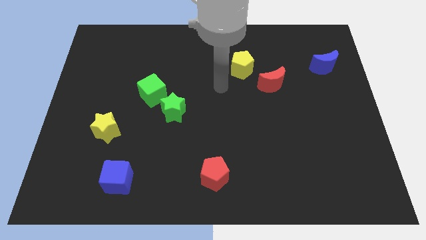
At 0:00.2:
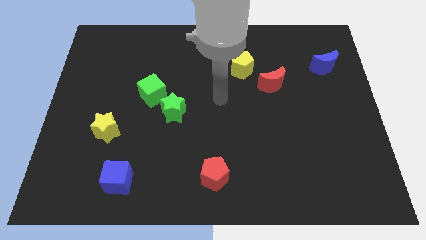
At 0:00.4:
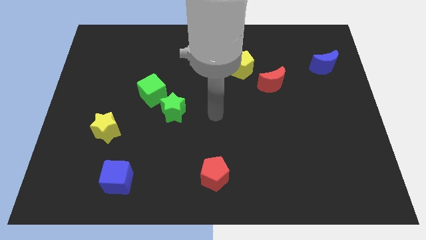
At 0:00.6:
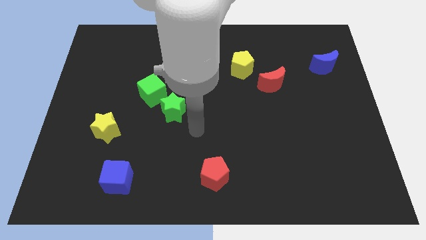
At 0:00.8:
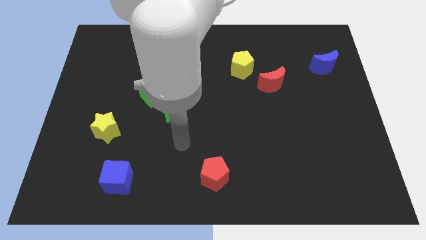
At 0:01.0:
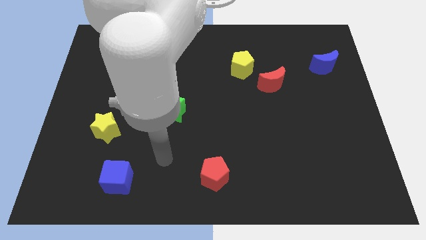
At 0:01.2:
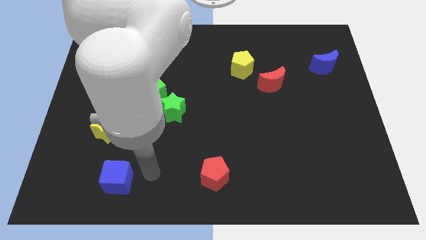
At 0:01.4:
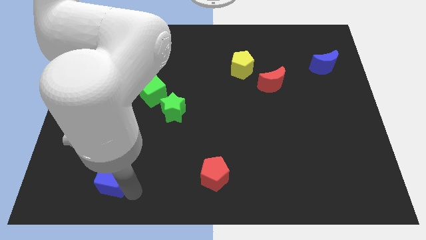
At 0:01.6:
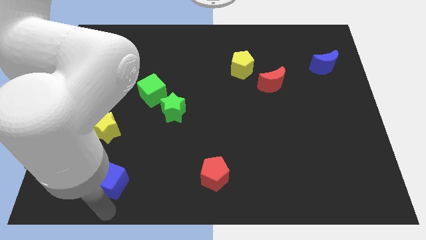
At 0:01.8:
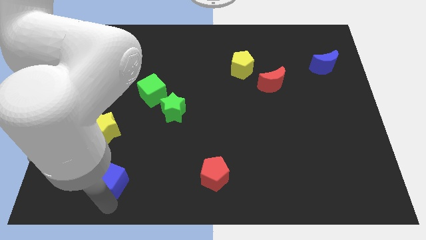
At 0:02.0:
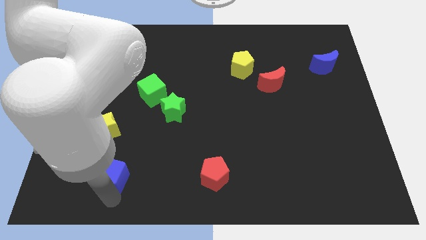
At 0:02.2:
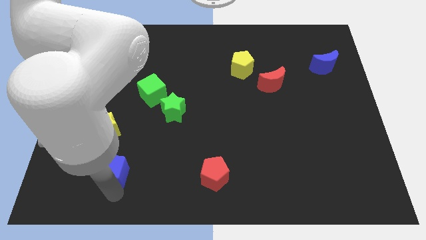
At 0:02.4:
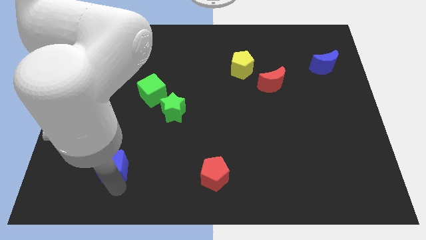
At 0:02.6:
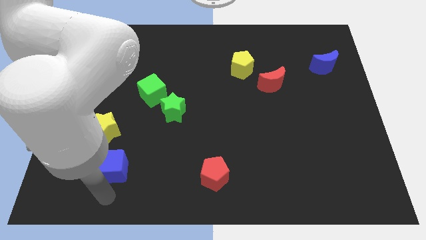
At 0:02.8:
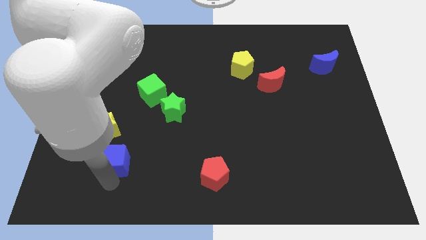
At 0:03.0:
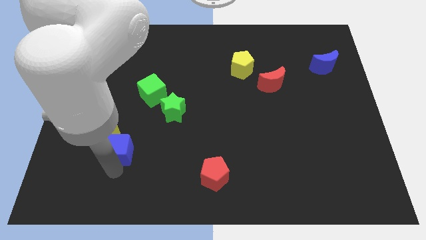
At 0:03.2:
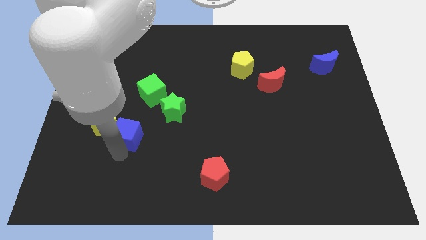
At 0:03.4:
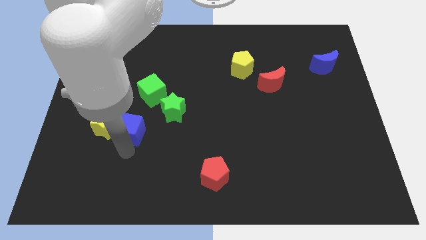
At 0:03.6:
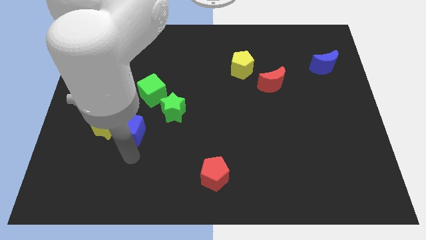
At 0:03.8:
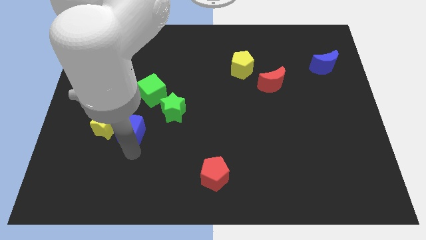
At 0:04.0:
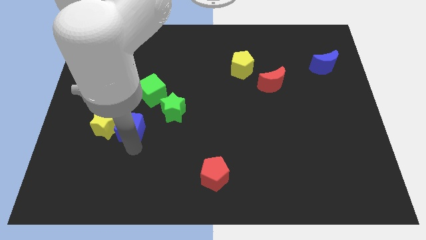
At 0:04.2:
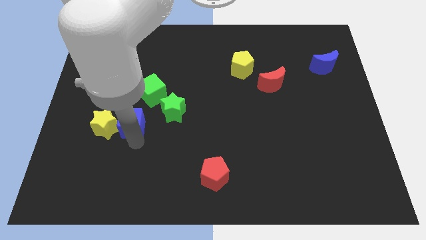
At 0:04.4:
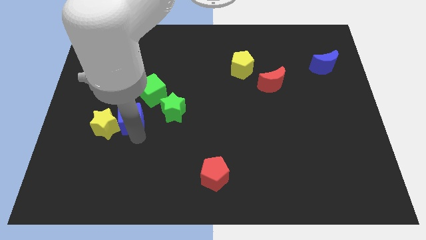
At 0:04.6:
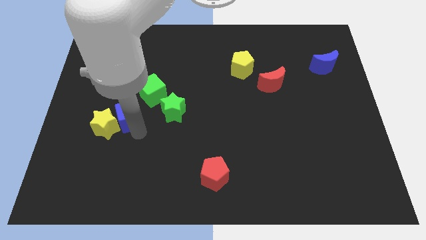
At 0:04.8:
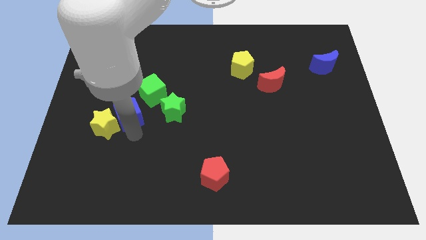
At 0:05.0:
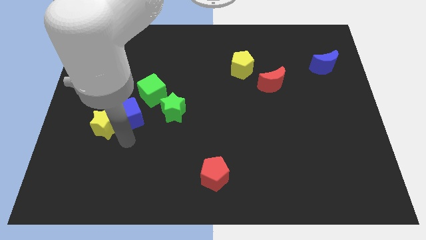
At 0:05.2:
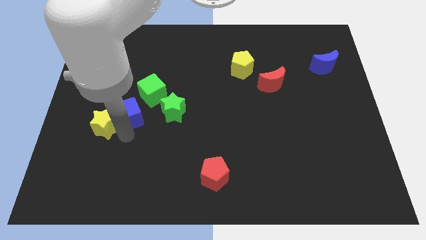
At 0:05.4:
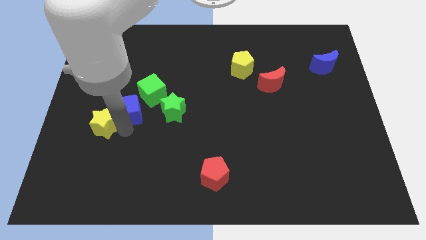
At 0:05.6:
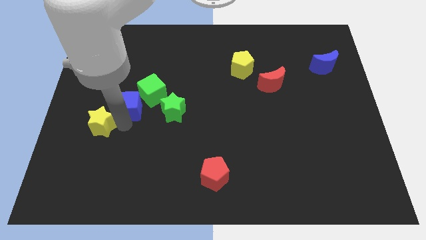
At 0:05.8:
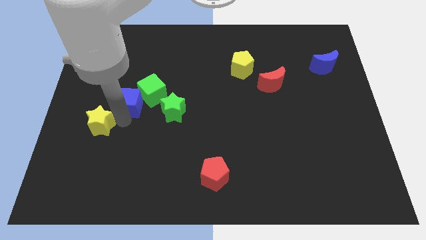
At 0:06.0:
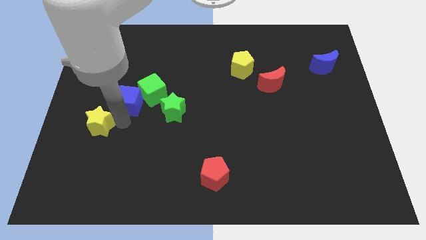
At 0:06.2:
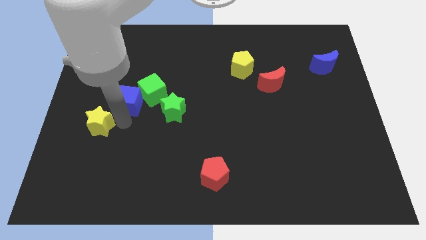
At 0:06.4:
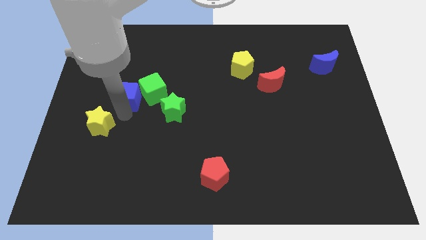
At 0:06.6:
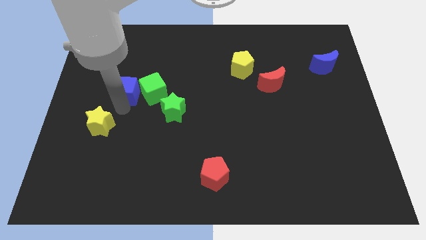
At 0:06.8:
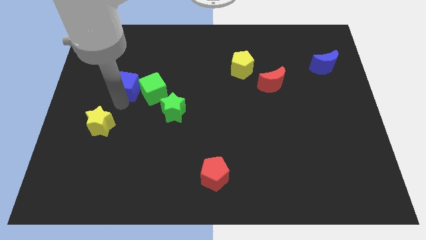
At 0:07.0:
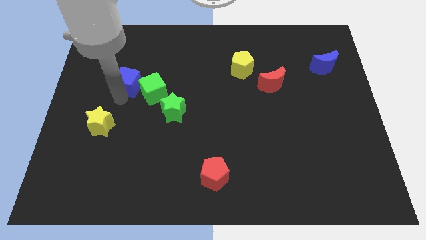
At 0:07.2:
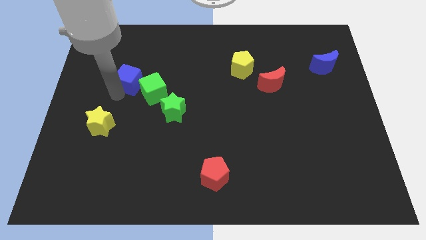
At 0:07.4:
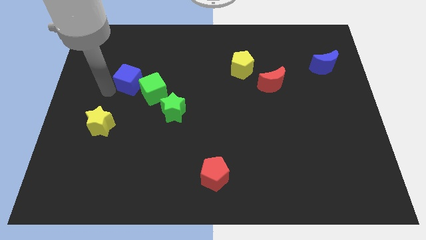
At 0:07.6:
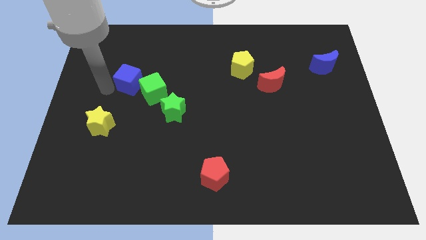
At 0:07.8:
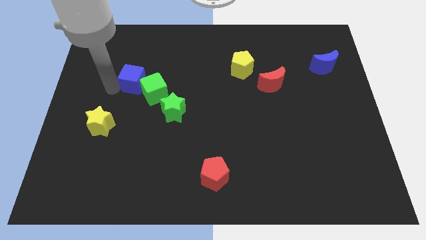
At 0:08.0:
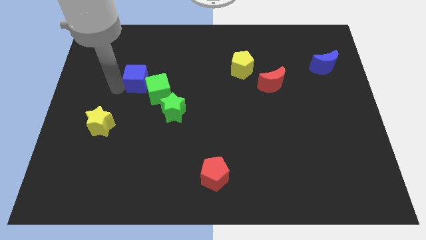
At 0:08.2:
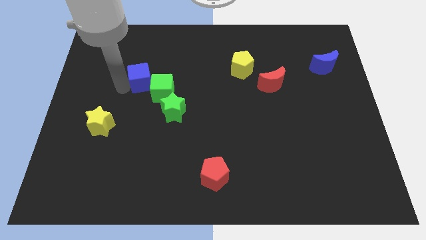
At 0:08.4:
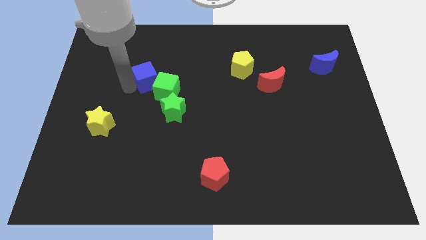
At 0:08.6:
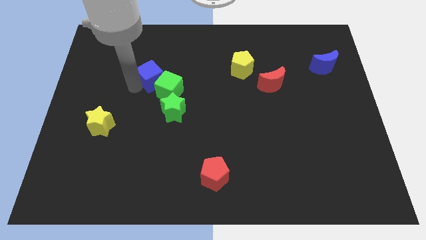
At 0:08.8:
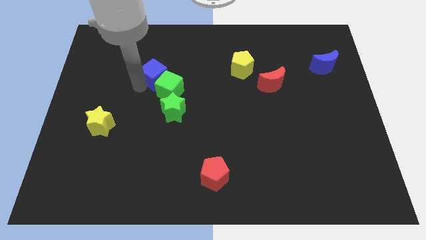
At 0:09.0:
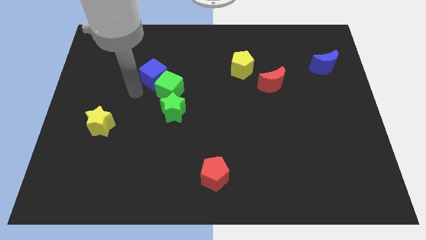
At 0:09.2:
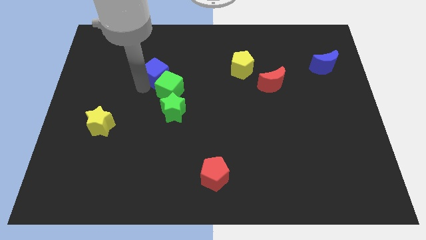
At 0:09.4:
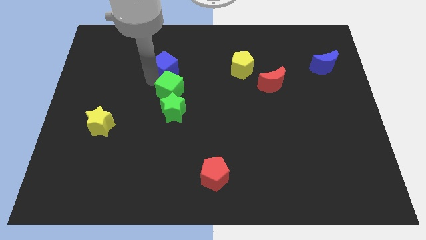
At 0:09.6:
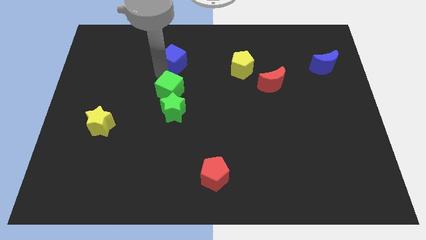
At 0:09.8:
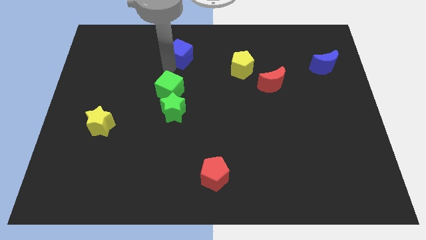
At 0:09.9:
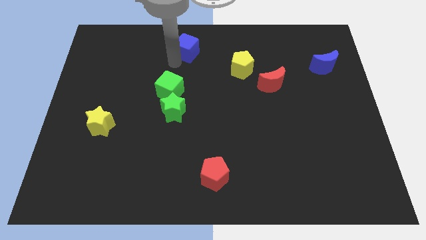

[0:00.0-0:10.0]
put the blue cube to the towards your base

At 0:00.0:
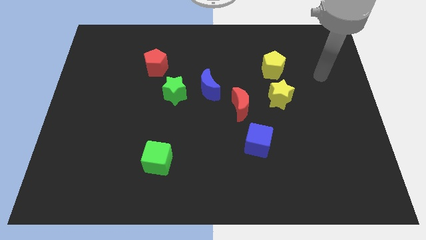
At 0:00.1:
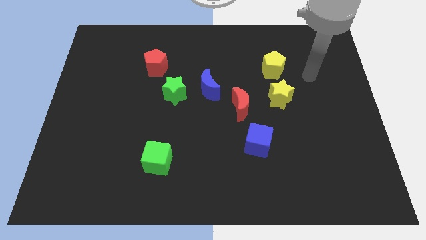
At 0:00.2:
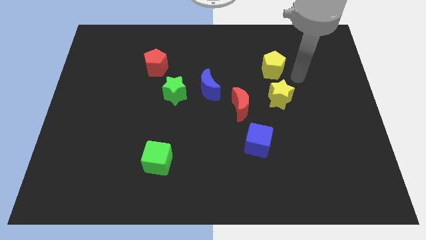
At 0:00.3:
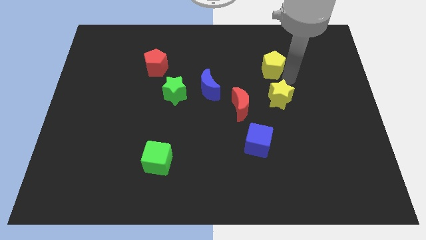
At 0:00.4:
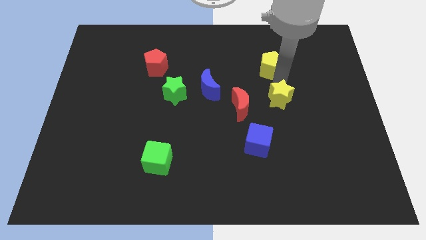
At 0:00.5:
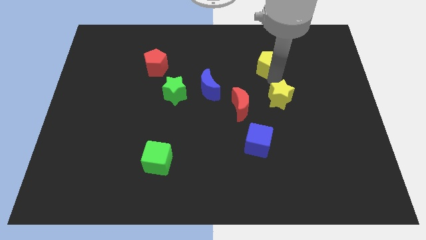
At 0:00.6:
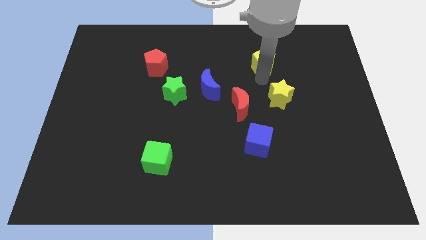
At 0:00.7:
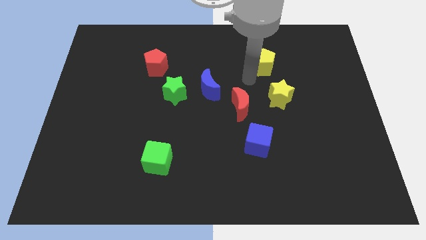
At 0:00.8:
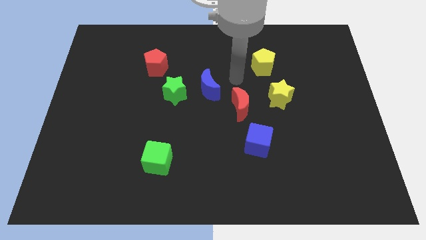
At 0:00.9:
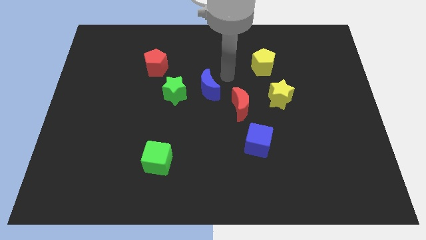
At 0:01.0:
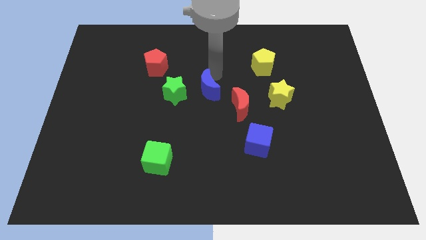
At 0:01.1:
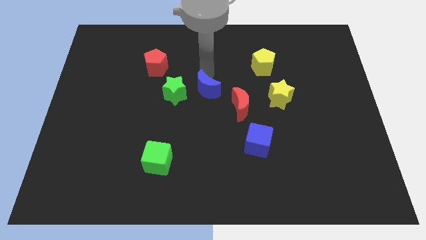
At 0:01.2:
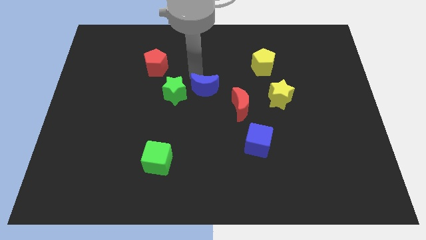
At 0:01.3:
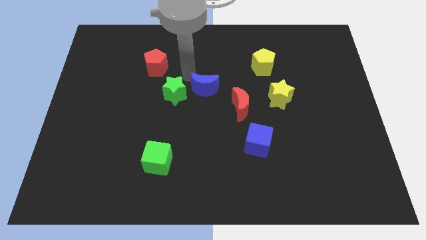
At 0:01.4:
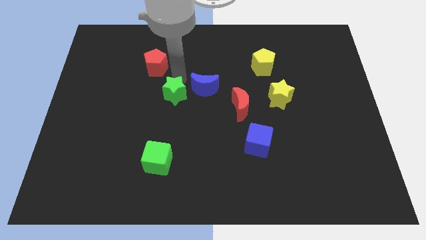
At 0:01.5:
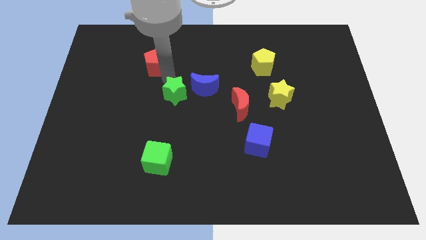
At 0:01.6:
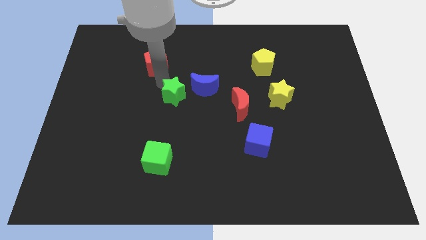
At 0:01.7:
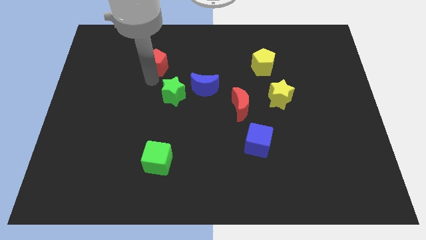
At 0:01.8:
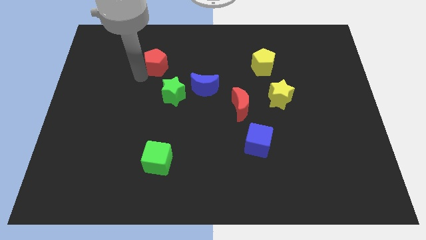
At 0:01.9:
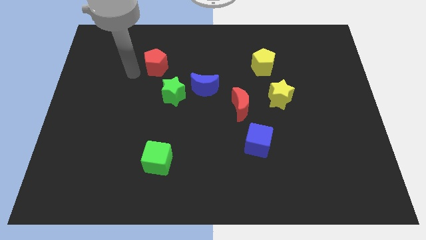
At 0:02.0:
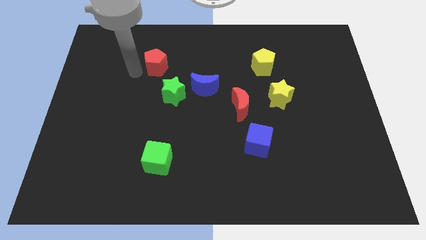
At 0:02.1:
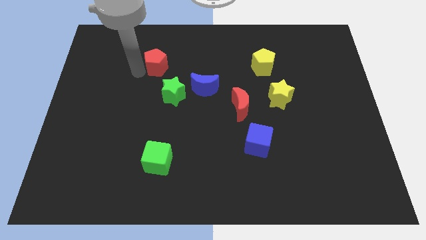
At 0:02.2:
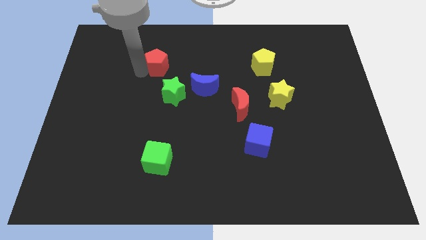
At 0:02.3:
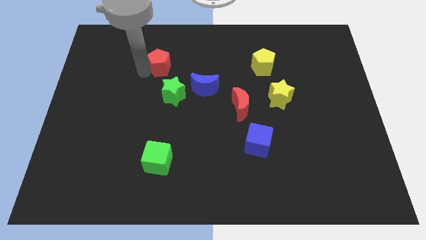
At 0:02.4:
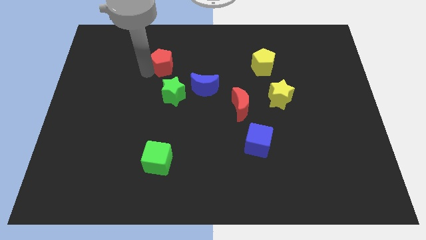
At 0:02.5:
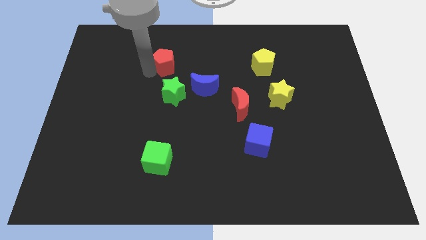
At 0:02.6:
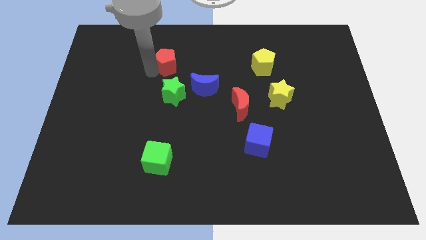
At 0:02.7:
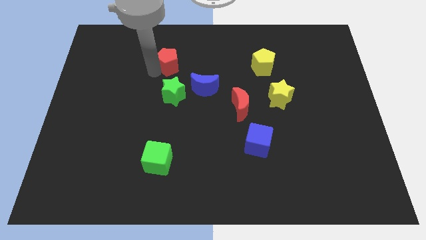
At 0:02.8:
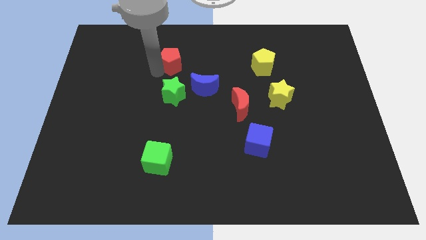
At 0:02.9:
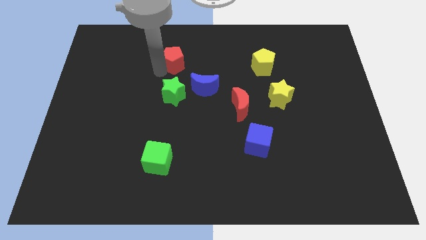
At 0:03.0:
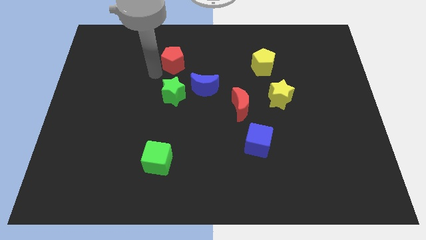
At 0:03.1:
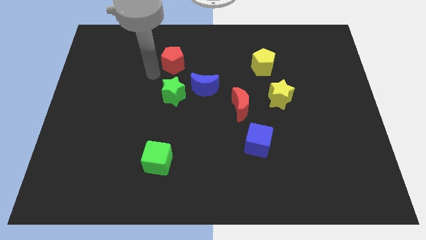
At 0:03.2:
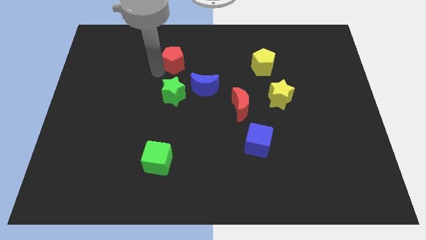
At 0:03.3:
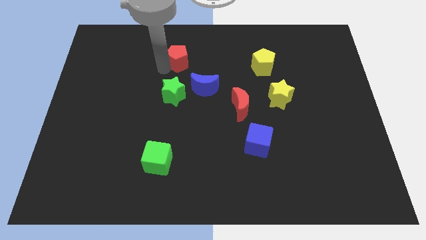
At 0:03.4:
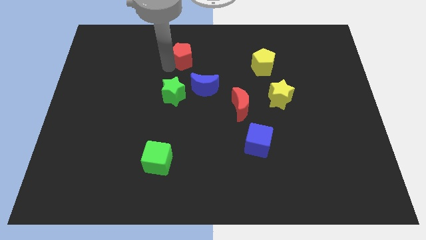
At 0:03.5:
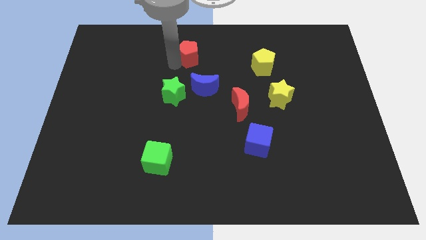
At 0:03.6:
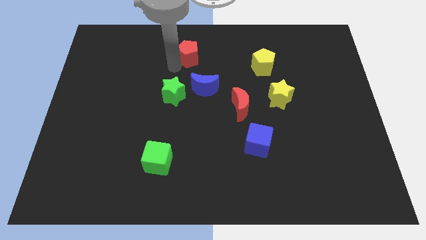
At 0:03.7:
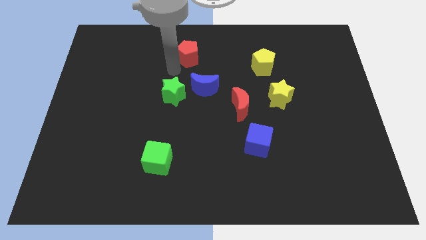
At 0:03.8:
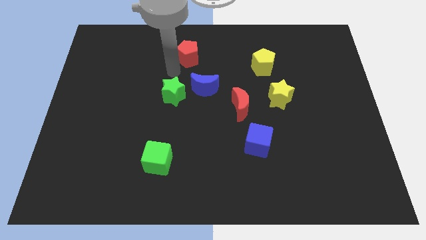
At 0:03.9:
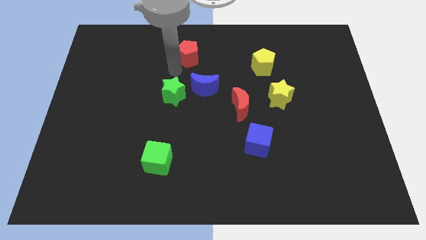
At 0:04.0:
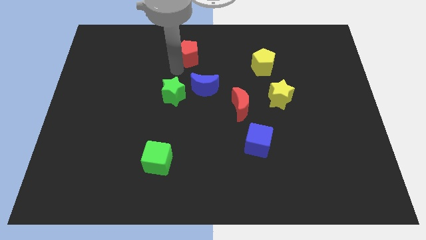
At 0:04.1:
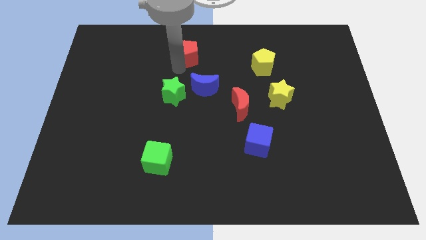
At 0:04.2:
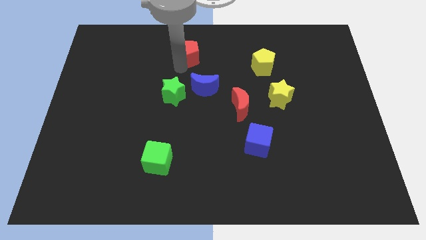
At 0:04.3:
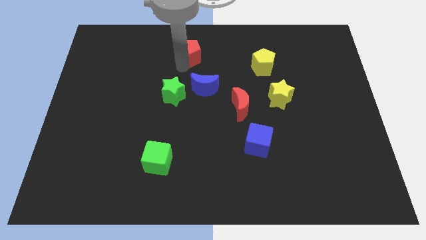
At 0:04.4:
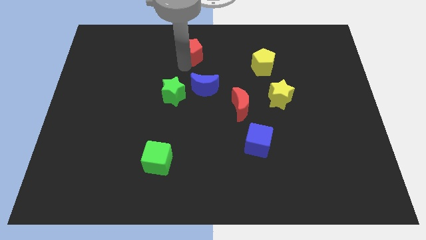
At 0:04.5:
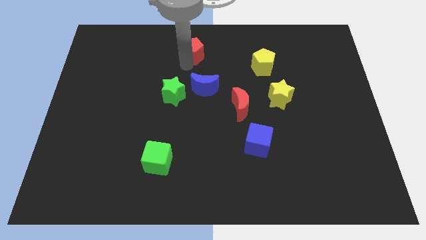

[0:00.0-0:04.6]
move the red pentagon to the towards your base
